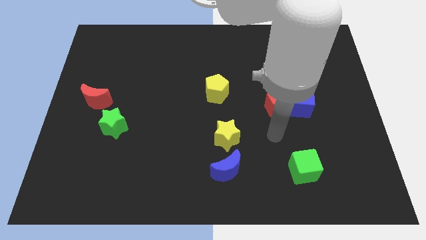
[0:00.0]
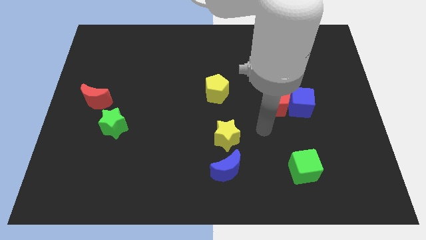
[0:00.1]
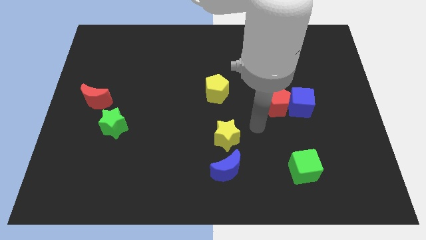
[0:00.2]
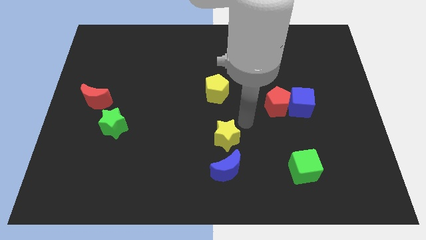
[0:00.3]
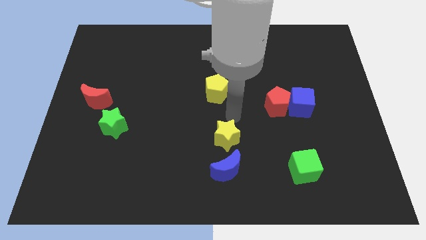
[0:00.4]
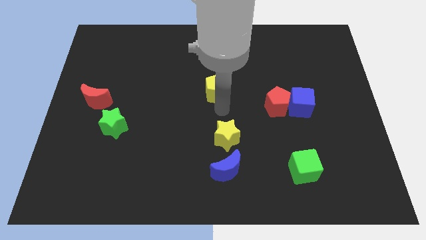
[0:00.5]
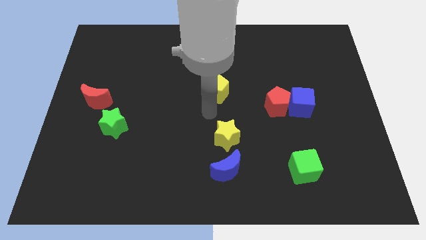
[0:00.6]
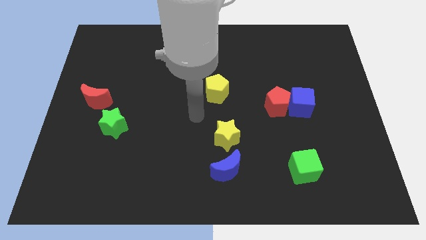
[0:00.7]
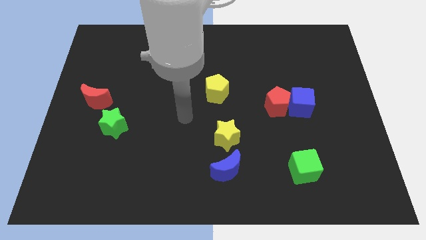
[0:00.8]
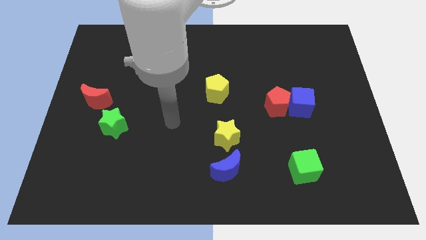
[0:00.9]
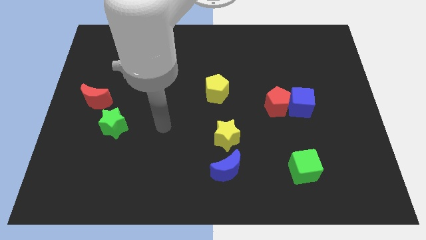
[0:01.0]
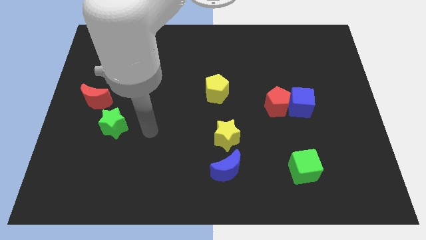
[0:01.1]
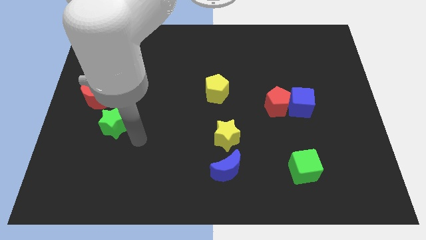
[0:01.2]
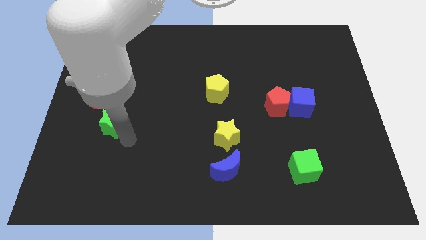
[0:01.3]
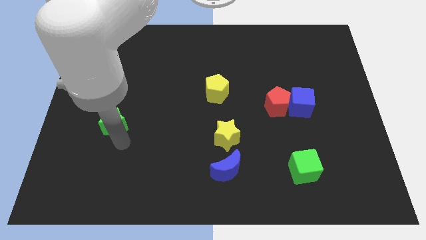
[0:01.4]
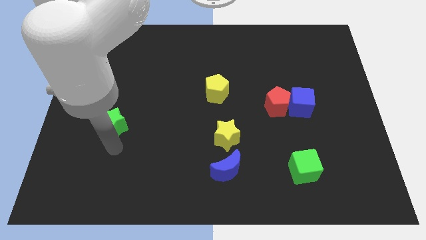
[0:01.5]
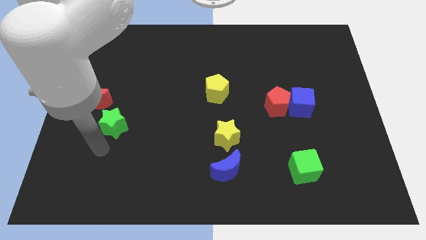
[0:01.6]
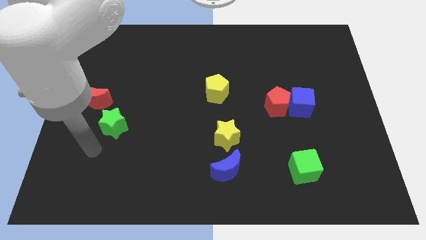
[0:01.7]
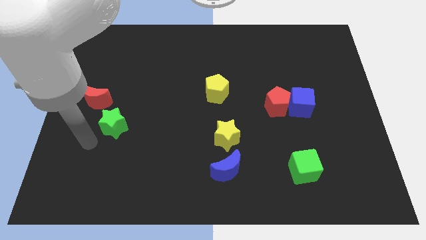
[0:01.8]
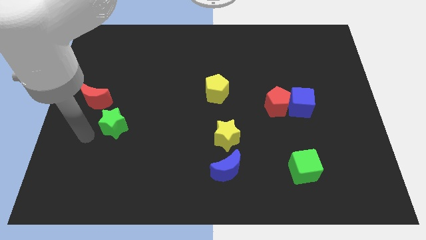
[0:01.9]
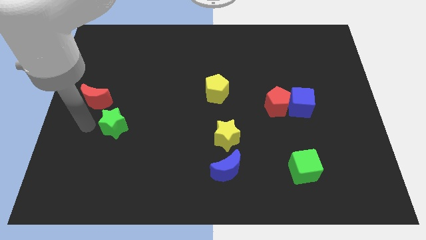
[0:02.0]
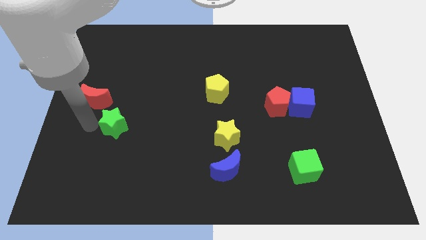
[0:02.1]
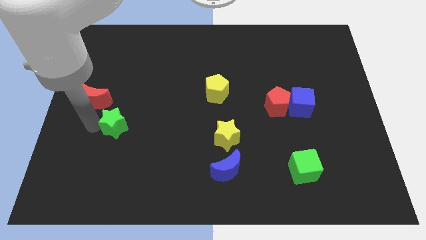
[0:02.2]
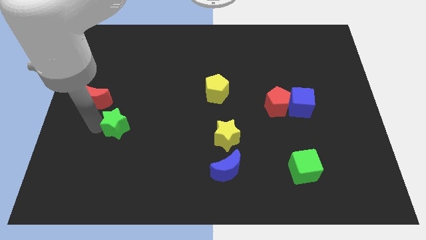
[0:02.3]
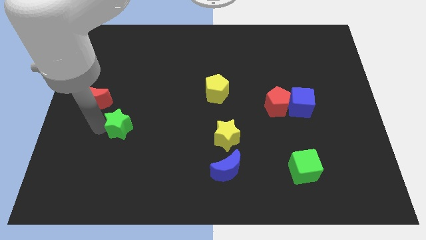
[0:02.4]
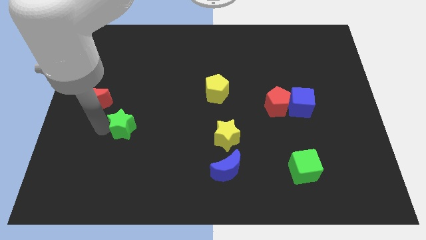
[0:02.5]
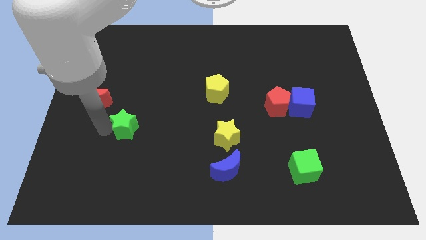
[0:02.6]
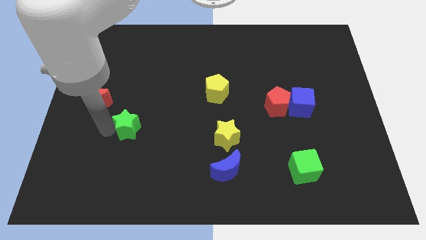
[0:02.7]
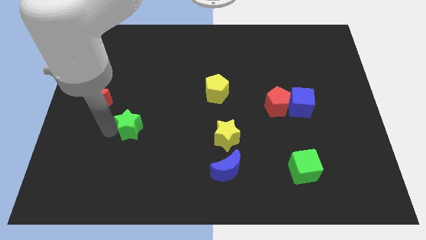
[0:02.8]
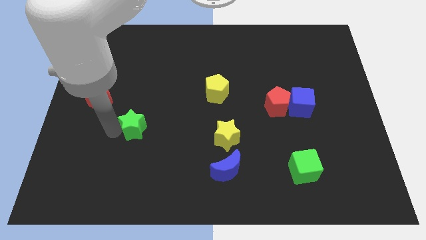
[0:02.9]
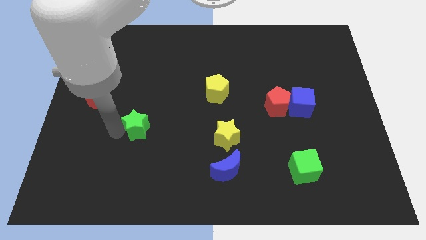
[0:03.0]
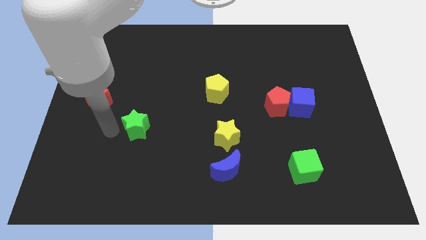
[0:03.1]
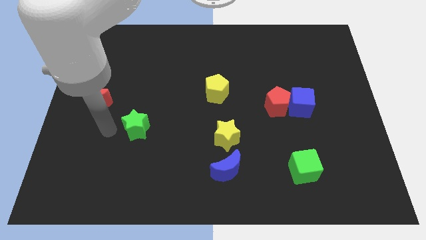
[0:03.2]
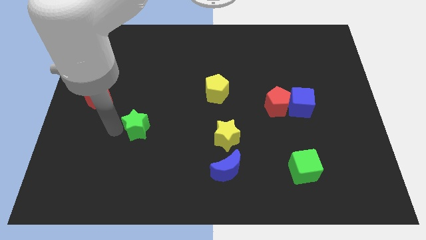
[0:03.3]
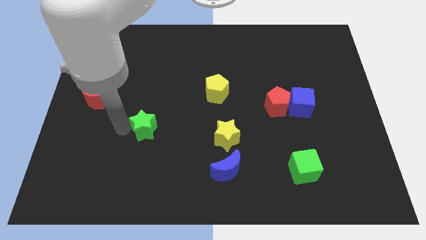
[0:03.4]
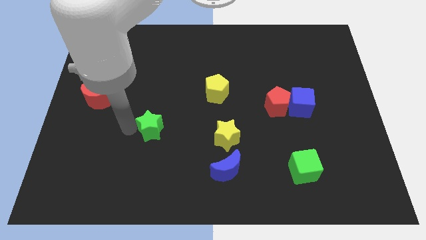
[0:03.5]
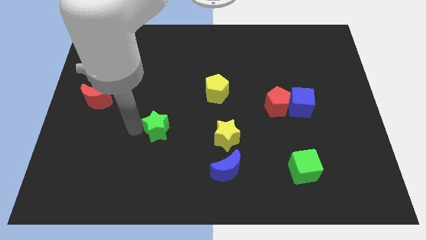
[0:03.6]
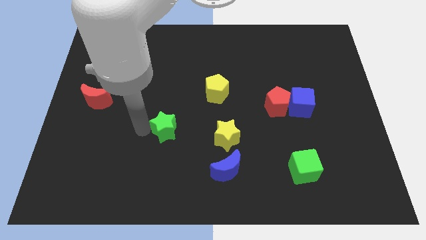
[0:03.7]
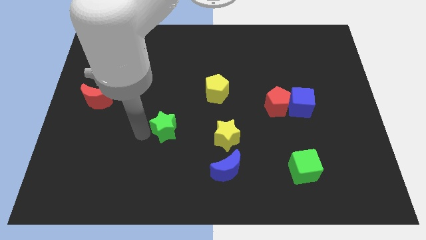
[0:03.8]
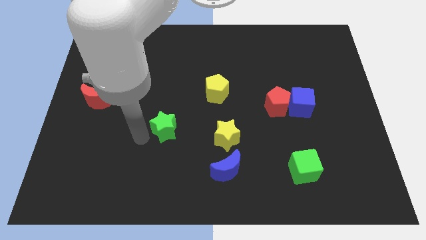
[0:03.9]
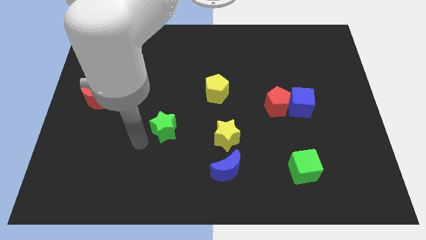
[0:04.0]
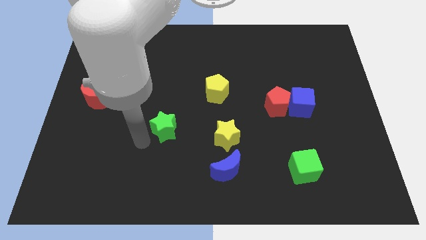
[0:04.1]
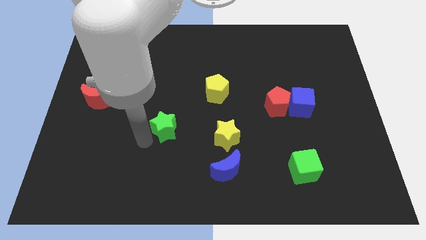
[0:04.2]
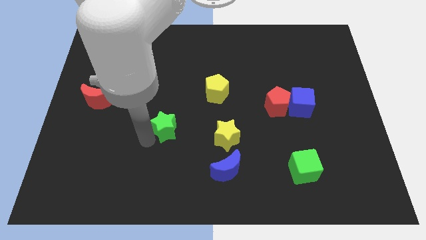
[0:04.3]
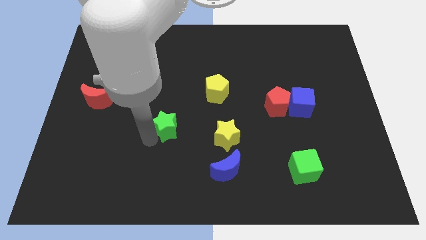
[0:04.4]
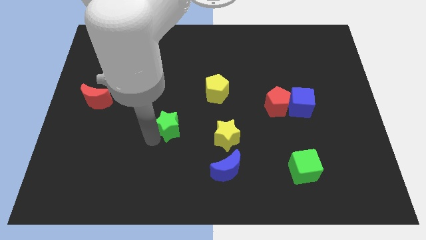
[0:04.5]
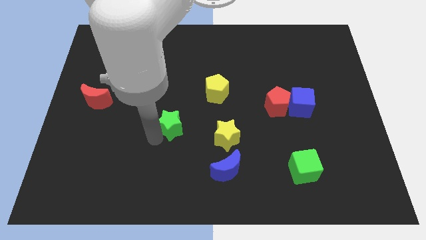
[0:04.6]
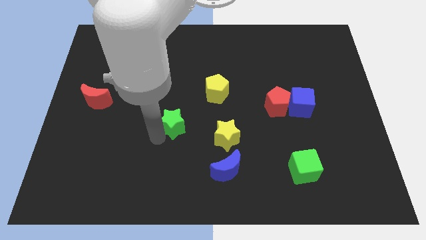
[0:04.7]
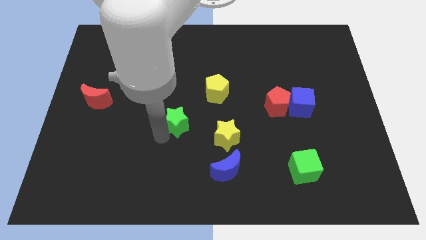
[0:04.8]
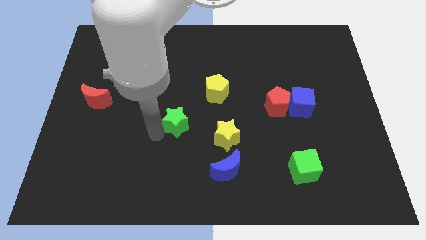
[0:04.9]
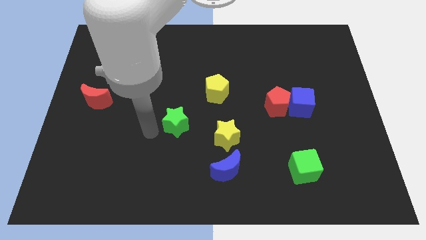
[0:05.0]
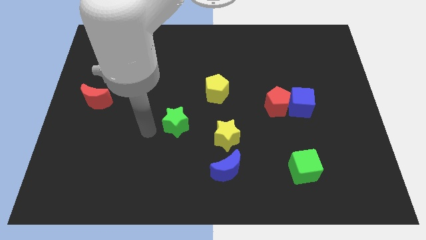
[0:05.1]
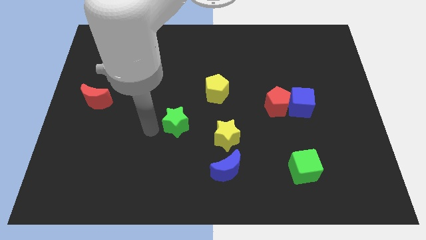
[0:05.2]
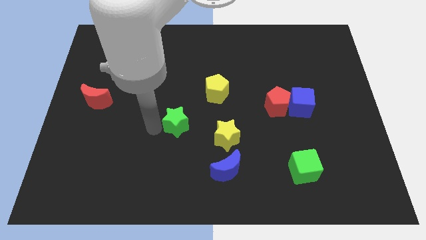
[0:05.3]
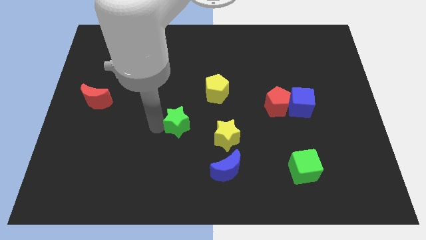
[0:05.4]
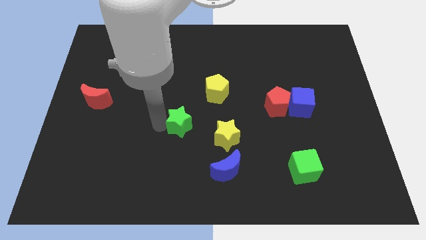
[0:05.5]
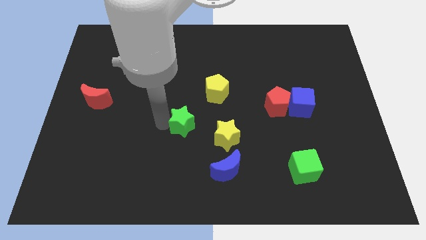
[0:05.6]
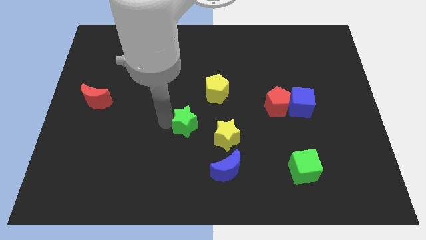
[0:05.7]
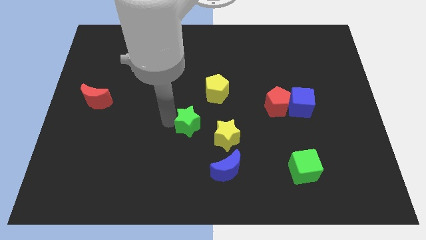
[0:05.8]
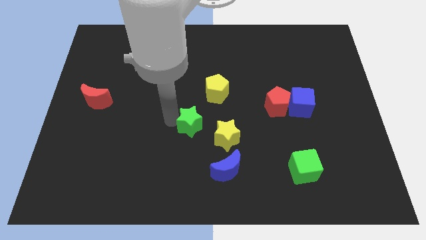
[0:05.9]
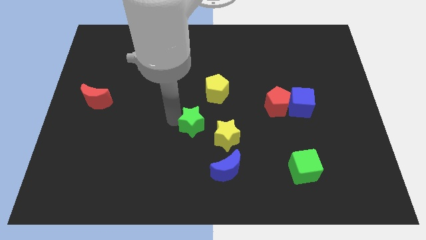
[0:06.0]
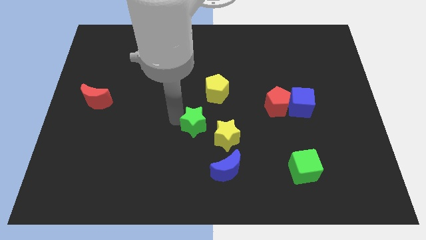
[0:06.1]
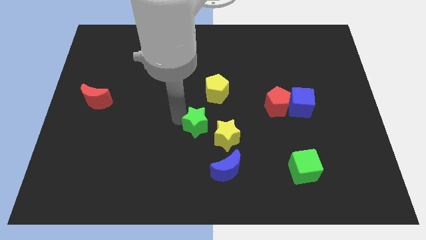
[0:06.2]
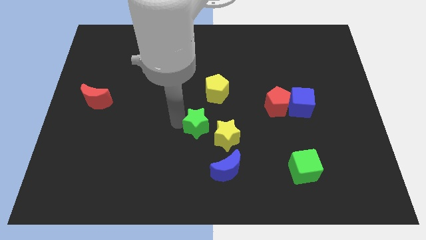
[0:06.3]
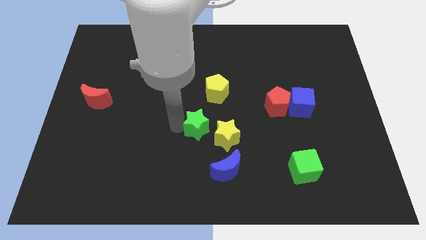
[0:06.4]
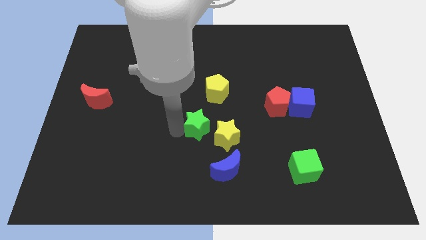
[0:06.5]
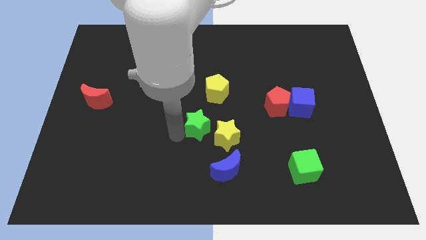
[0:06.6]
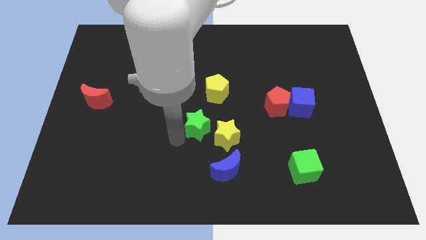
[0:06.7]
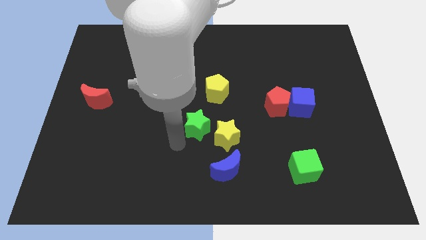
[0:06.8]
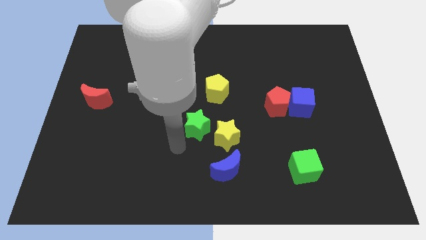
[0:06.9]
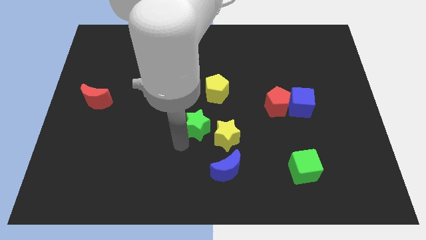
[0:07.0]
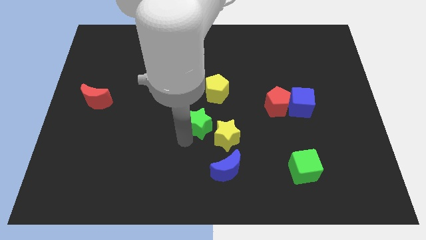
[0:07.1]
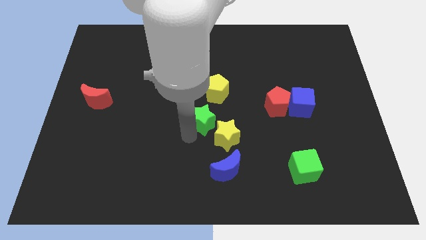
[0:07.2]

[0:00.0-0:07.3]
push the green star to the right

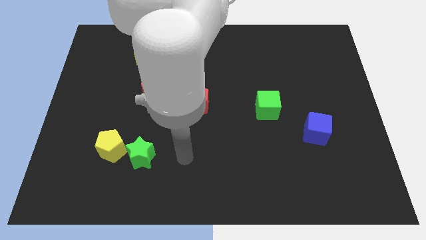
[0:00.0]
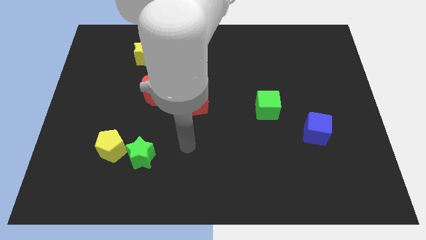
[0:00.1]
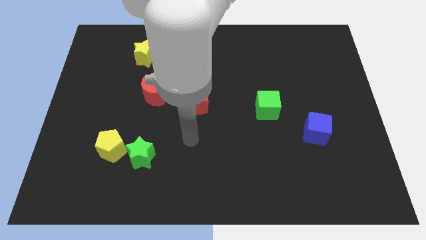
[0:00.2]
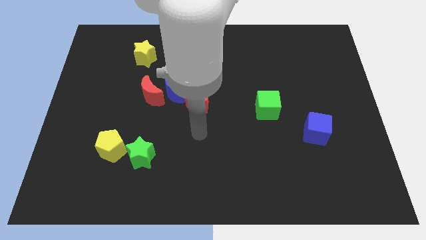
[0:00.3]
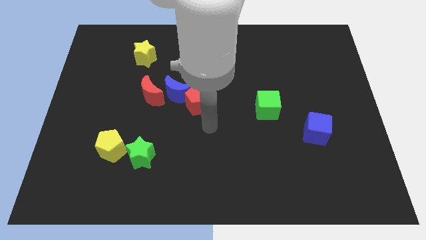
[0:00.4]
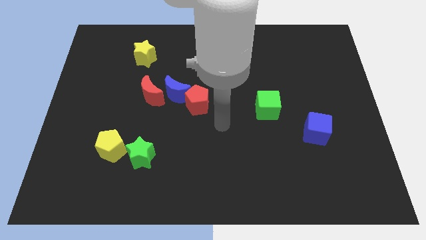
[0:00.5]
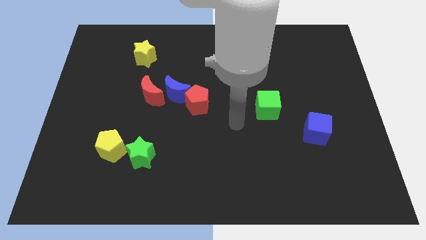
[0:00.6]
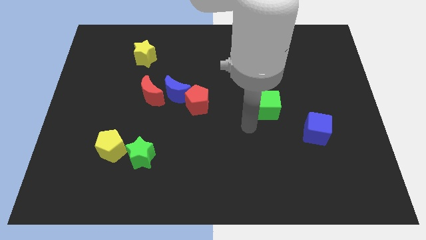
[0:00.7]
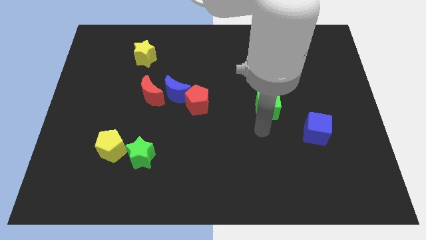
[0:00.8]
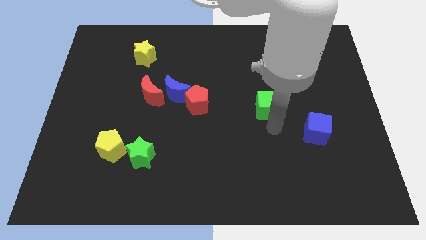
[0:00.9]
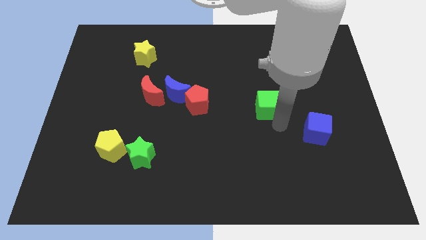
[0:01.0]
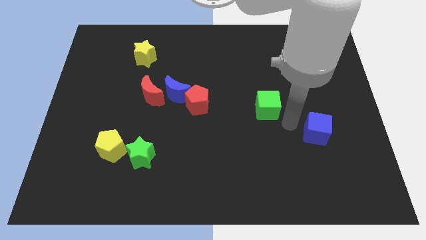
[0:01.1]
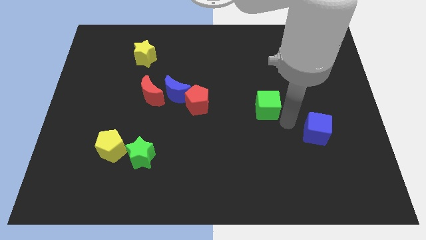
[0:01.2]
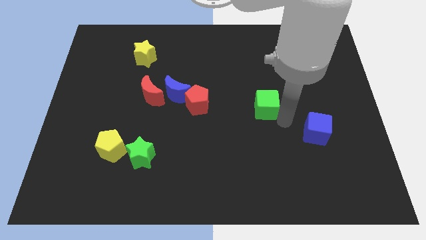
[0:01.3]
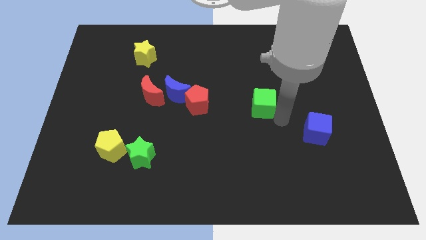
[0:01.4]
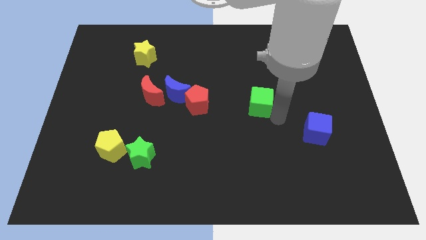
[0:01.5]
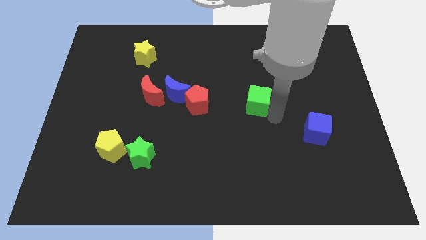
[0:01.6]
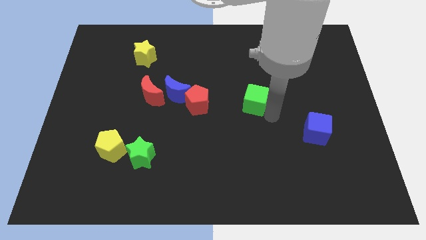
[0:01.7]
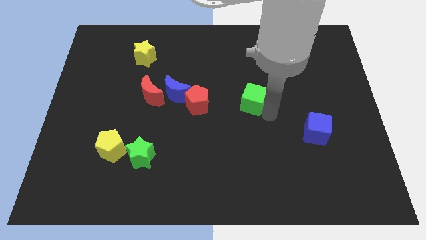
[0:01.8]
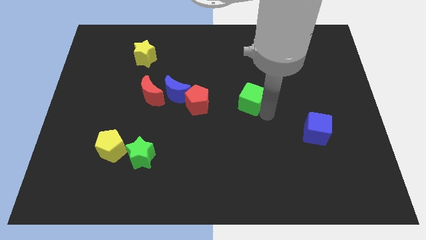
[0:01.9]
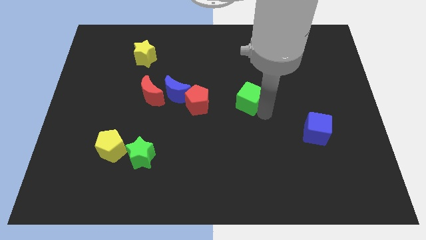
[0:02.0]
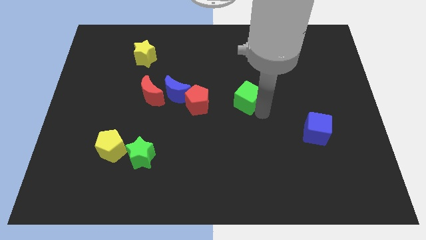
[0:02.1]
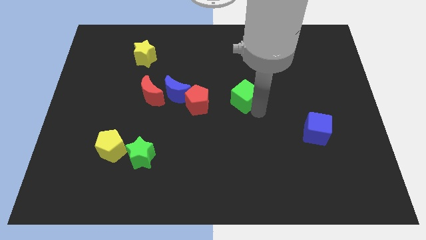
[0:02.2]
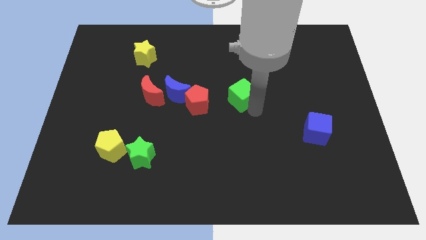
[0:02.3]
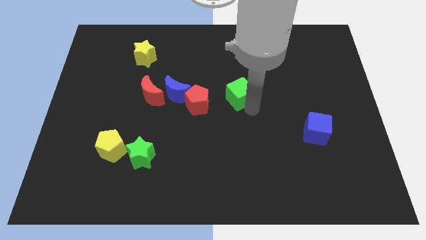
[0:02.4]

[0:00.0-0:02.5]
slightly move the green cube upwards and left diagonally
